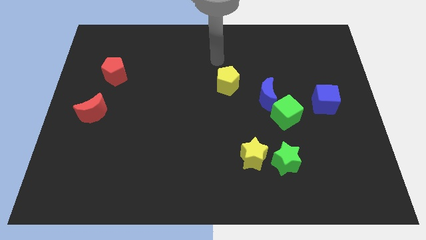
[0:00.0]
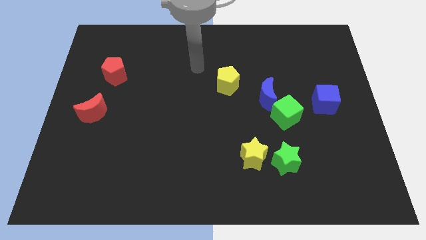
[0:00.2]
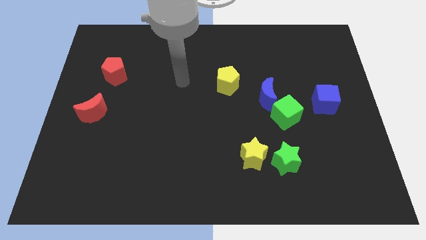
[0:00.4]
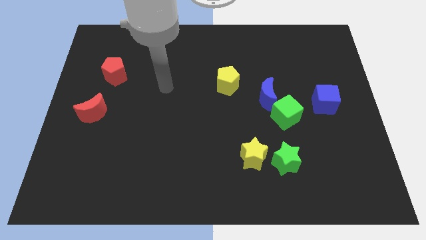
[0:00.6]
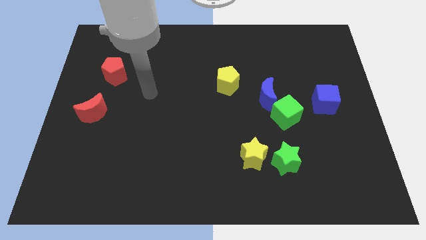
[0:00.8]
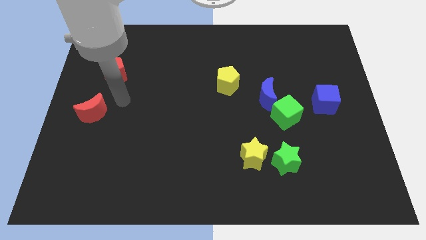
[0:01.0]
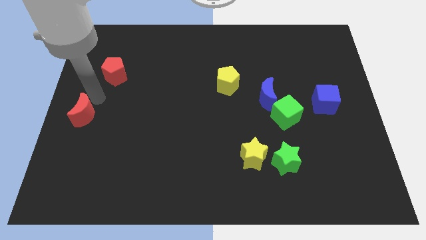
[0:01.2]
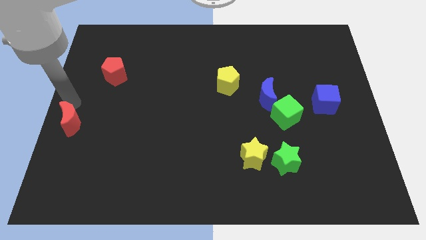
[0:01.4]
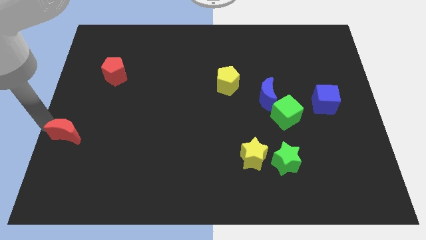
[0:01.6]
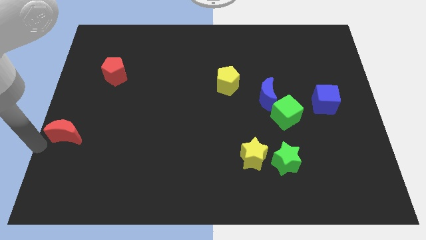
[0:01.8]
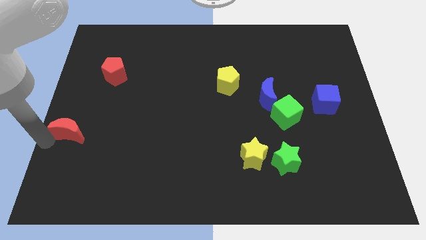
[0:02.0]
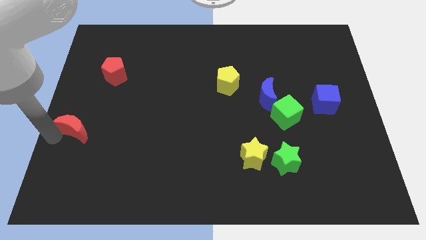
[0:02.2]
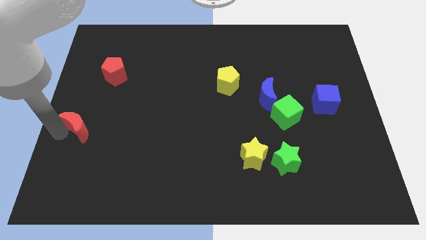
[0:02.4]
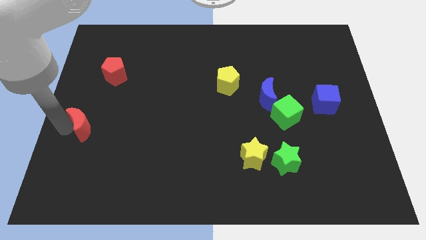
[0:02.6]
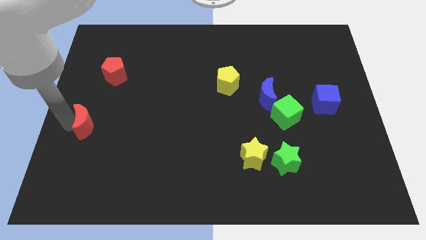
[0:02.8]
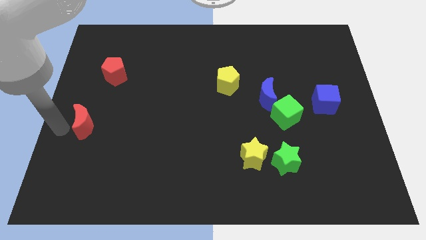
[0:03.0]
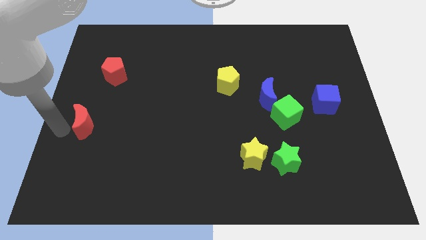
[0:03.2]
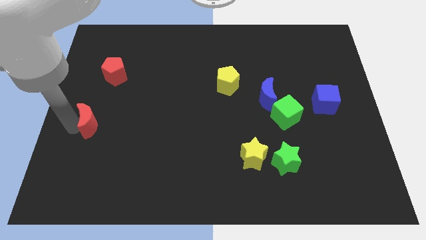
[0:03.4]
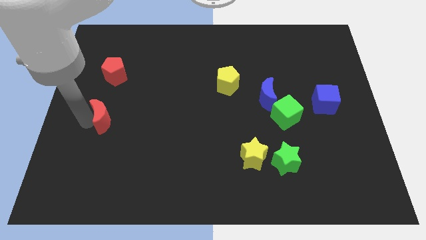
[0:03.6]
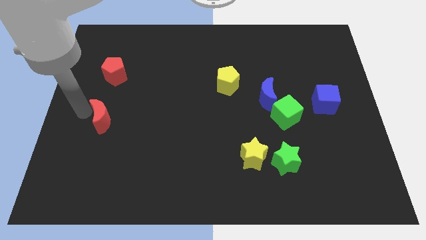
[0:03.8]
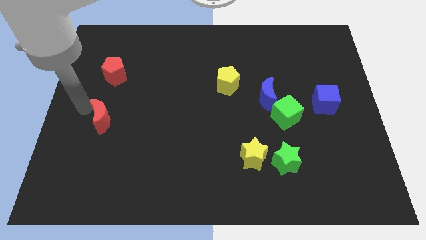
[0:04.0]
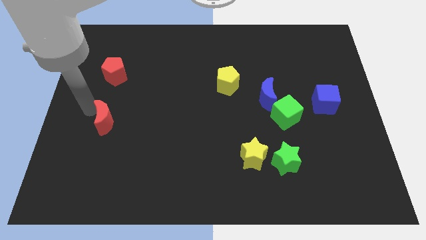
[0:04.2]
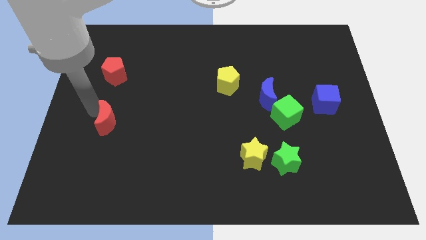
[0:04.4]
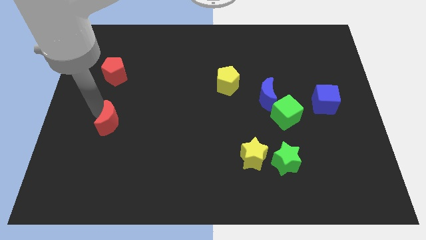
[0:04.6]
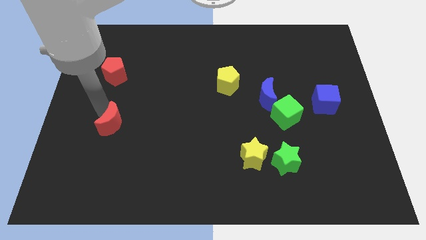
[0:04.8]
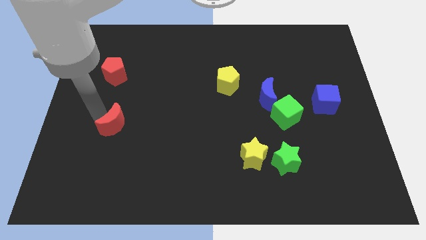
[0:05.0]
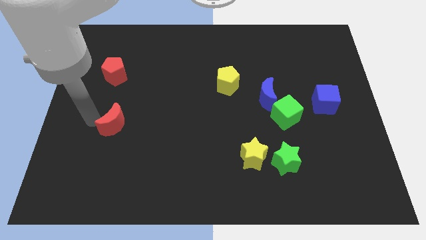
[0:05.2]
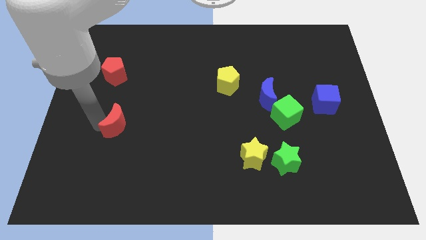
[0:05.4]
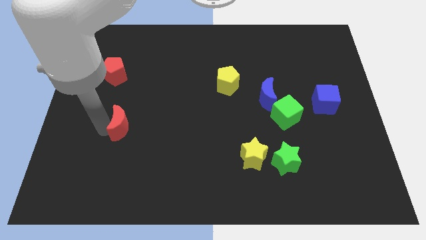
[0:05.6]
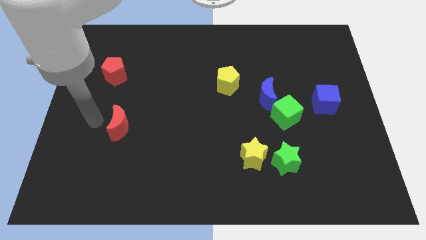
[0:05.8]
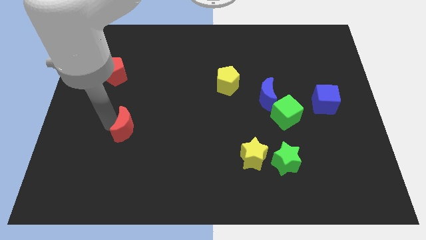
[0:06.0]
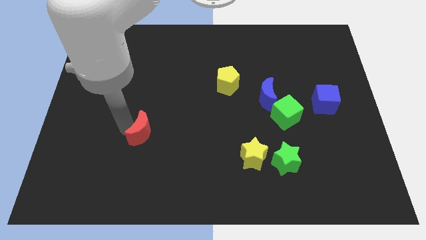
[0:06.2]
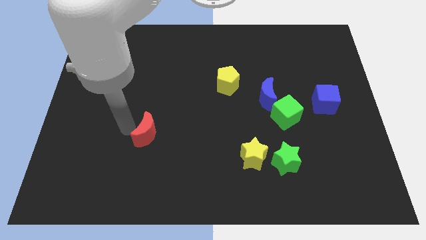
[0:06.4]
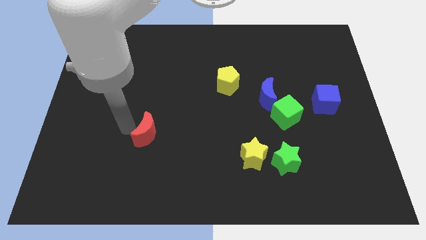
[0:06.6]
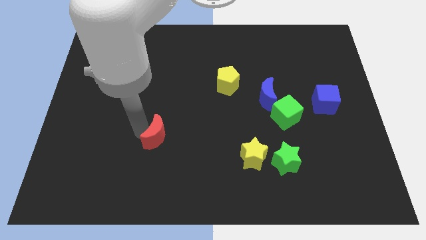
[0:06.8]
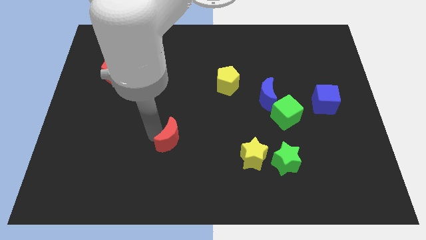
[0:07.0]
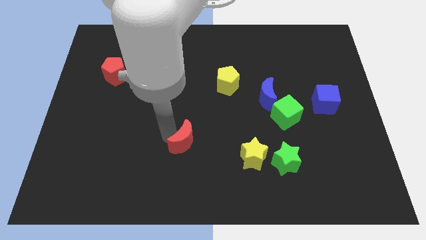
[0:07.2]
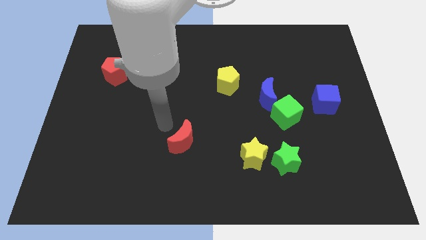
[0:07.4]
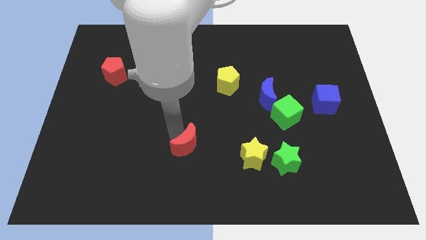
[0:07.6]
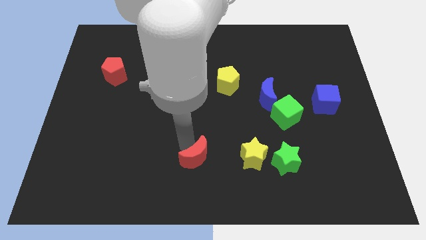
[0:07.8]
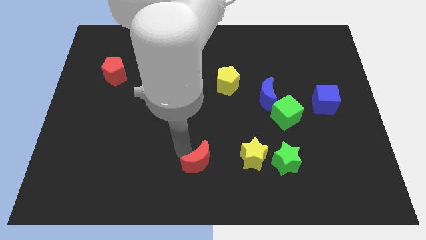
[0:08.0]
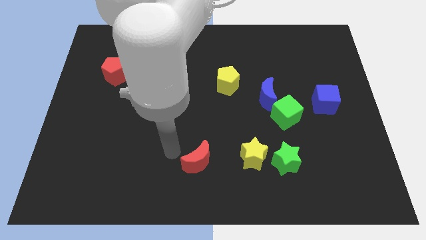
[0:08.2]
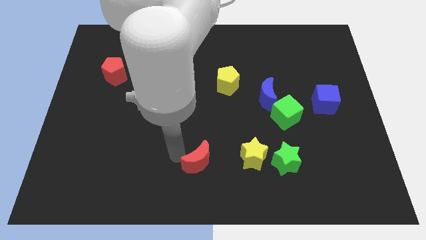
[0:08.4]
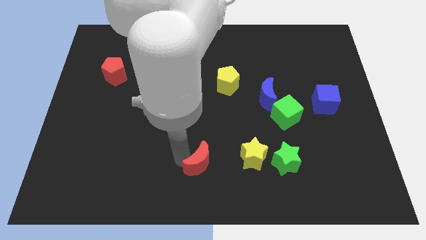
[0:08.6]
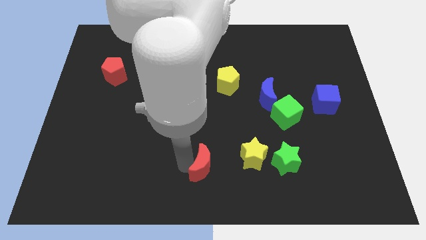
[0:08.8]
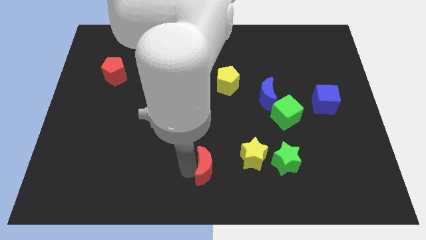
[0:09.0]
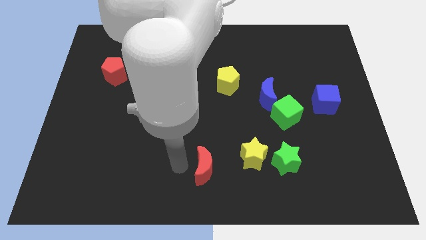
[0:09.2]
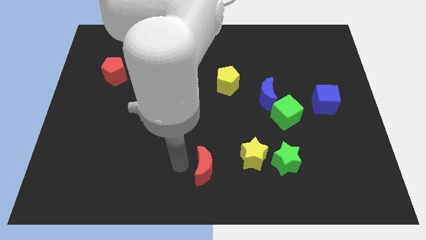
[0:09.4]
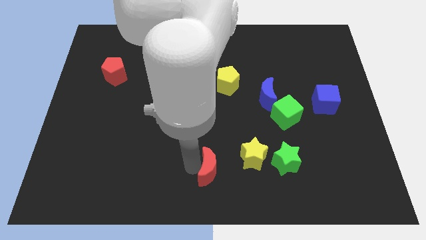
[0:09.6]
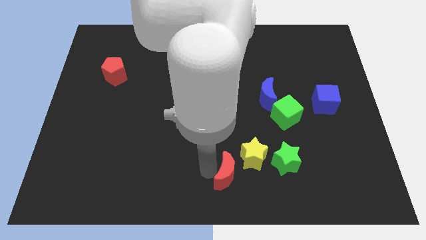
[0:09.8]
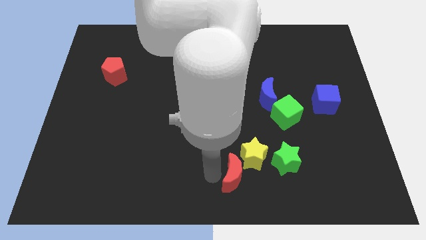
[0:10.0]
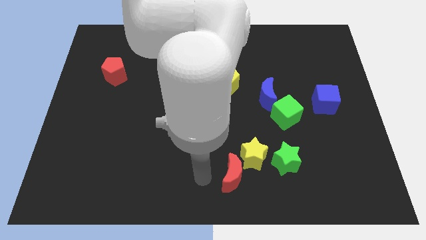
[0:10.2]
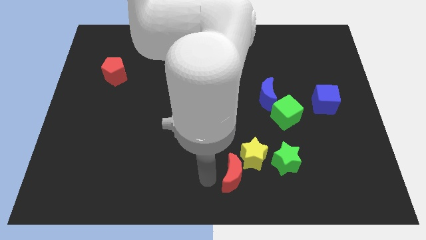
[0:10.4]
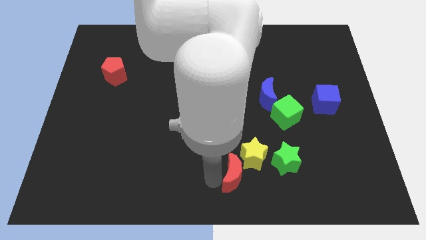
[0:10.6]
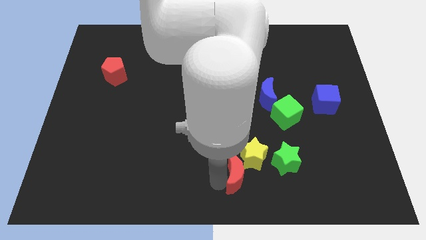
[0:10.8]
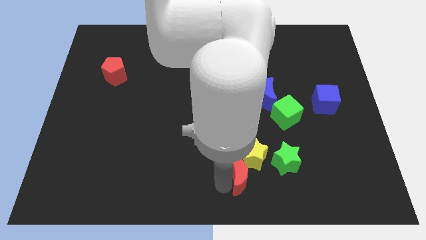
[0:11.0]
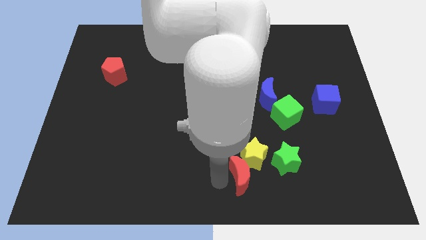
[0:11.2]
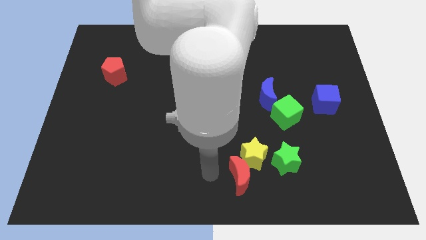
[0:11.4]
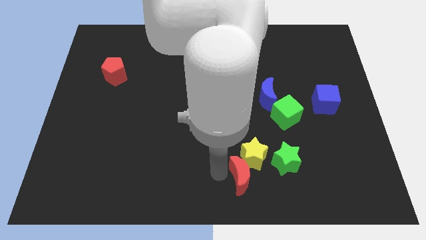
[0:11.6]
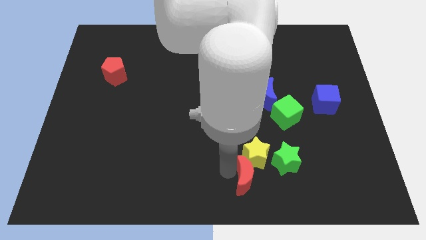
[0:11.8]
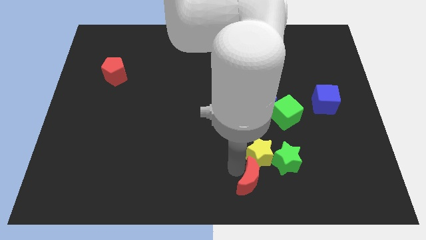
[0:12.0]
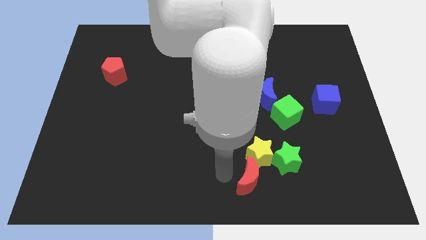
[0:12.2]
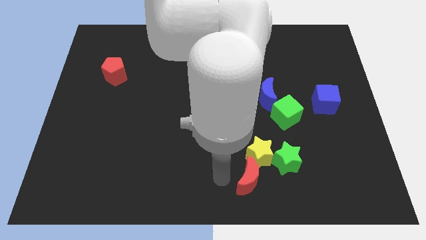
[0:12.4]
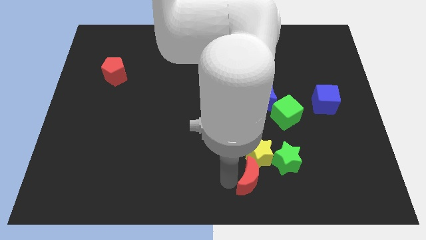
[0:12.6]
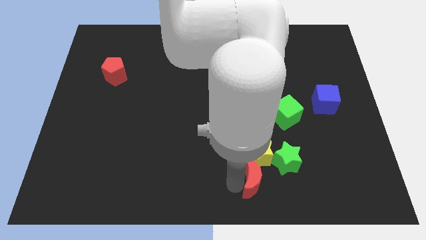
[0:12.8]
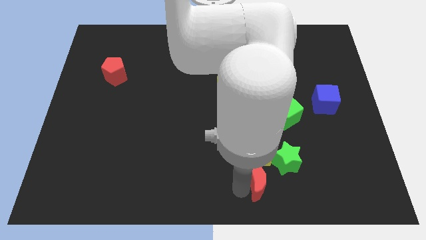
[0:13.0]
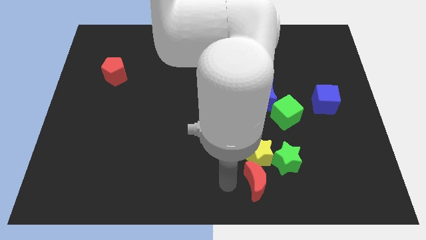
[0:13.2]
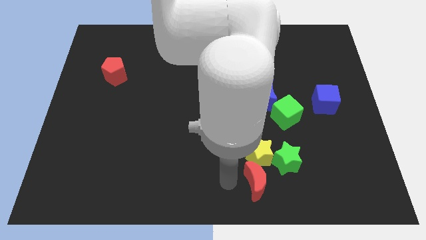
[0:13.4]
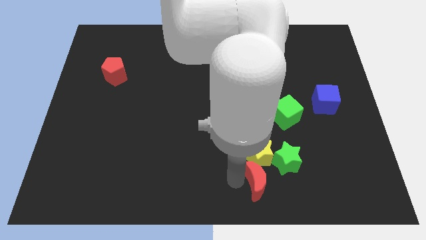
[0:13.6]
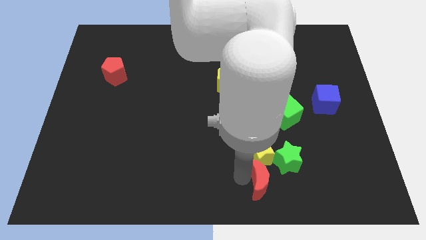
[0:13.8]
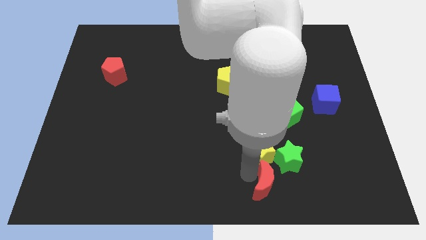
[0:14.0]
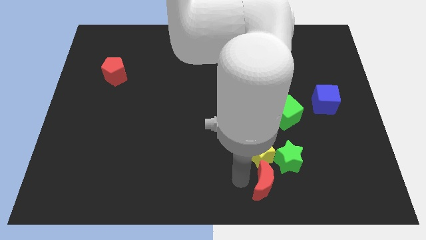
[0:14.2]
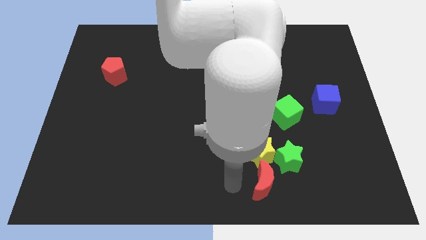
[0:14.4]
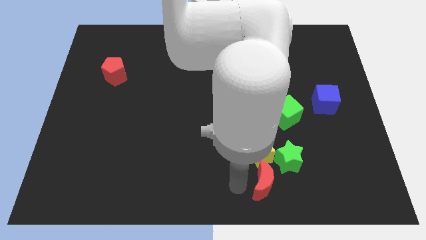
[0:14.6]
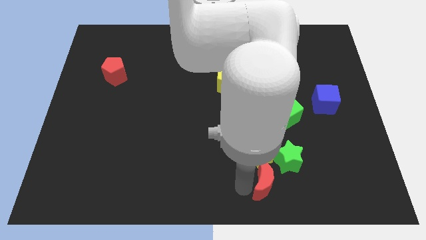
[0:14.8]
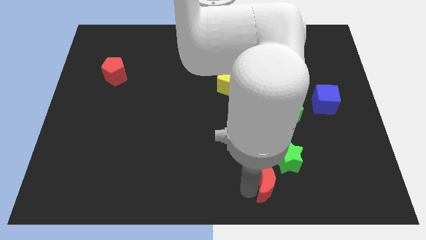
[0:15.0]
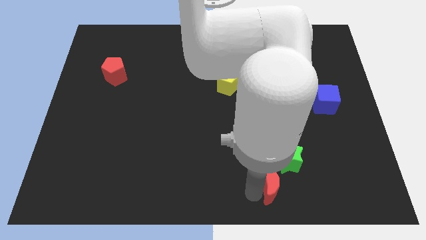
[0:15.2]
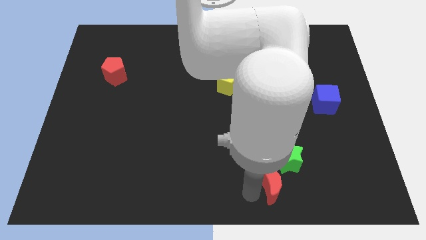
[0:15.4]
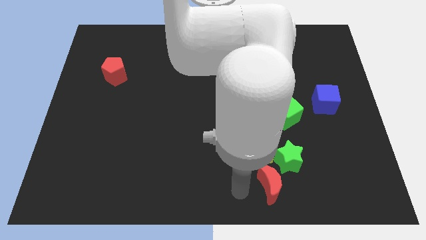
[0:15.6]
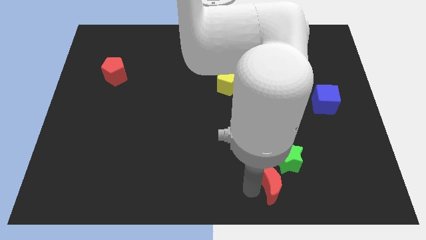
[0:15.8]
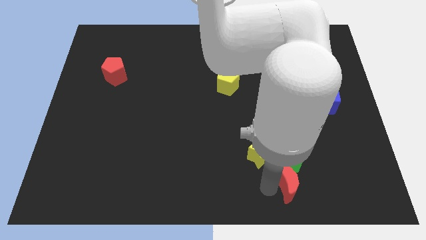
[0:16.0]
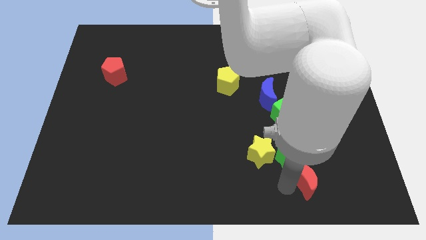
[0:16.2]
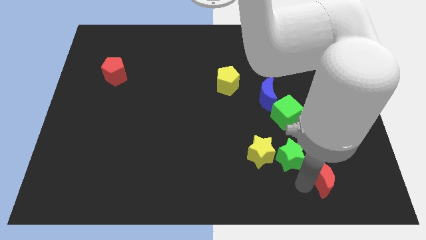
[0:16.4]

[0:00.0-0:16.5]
move the red moon just right of the green star
